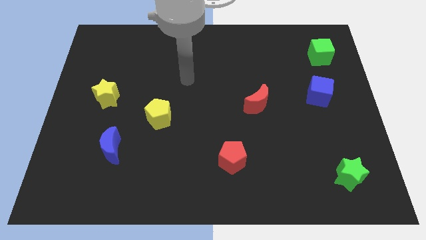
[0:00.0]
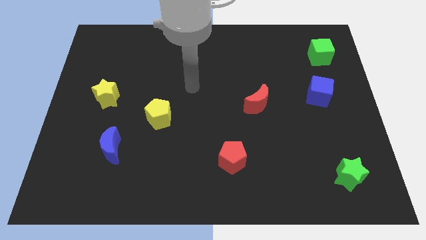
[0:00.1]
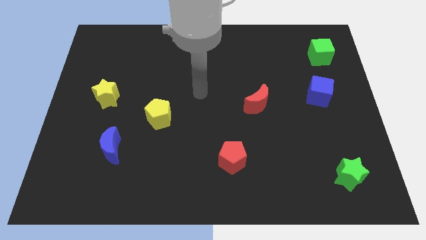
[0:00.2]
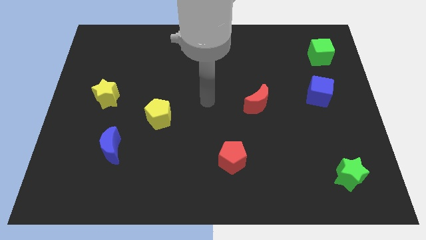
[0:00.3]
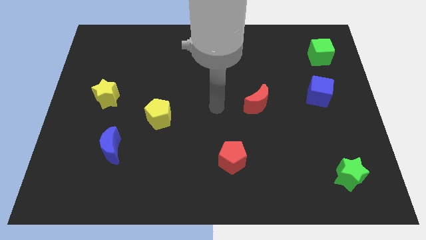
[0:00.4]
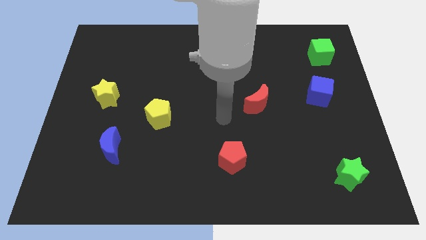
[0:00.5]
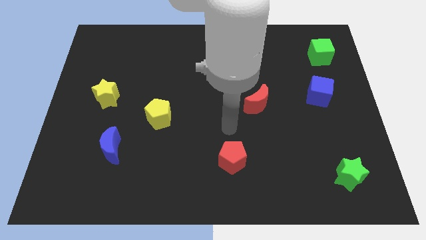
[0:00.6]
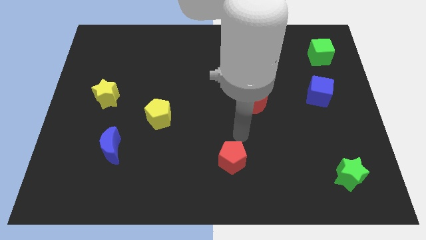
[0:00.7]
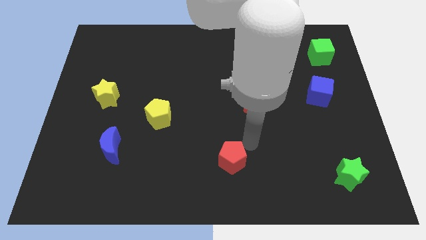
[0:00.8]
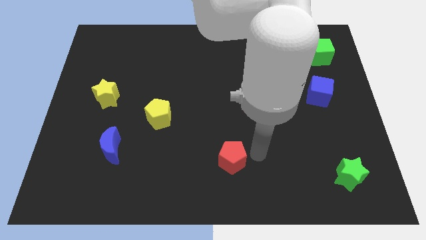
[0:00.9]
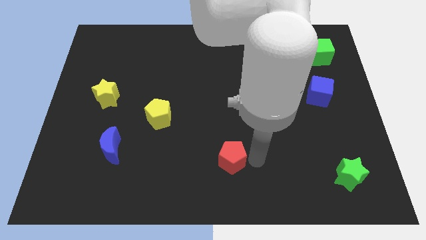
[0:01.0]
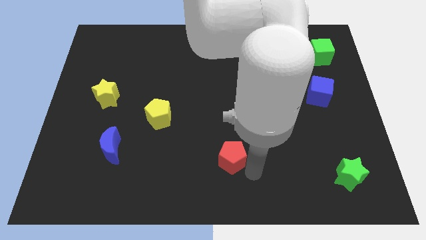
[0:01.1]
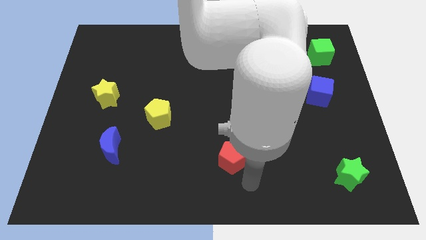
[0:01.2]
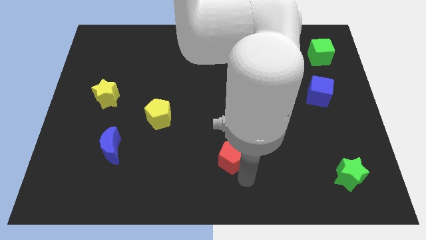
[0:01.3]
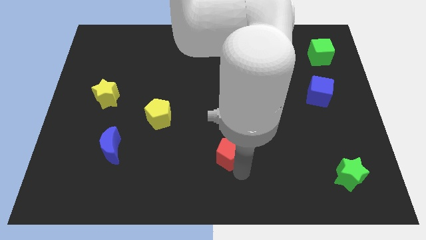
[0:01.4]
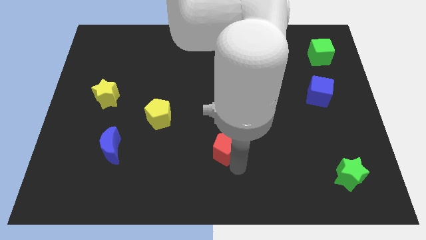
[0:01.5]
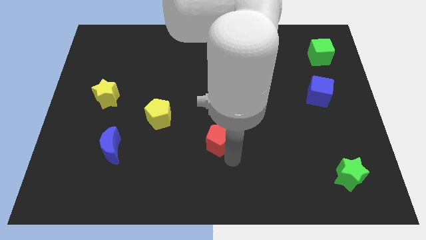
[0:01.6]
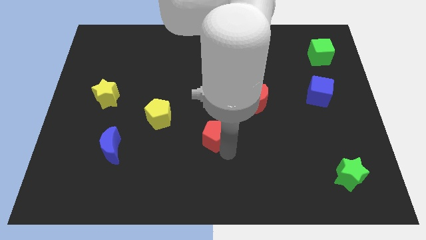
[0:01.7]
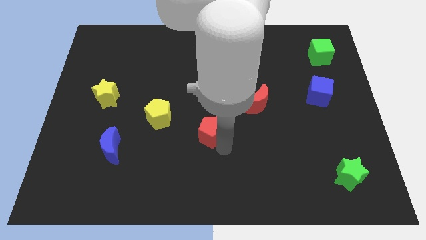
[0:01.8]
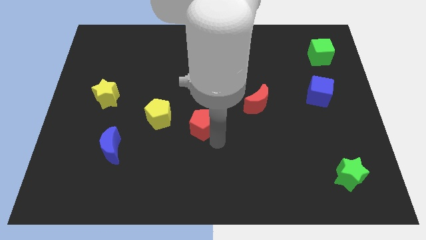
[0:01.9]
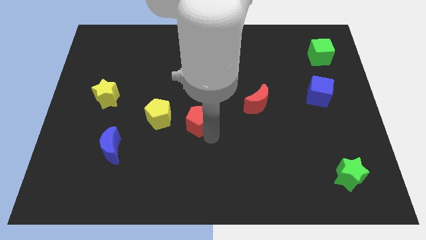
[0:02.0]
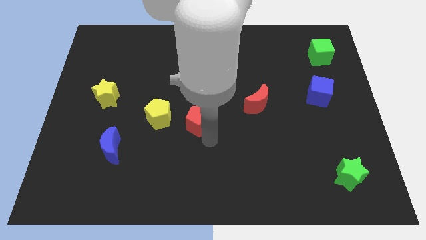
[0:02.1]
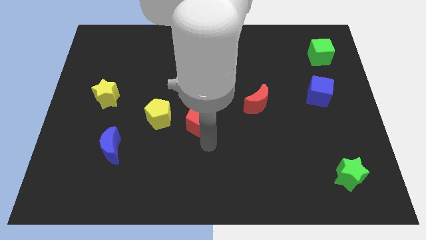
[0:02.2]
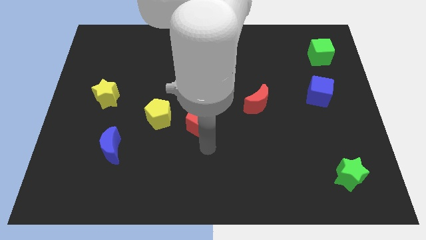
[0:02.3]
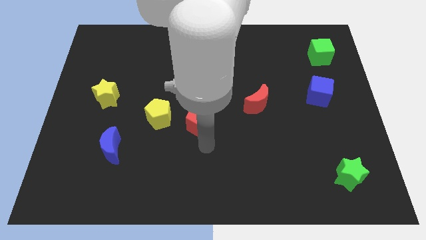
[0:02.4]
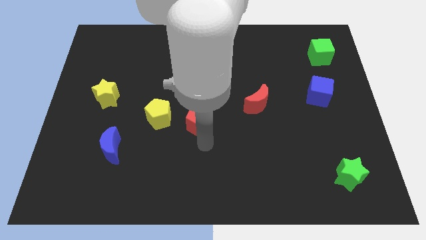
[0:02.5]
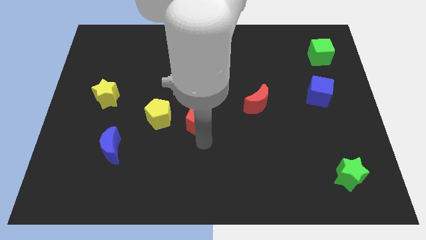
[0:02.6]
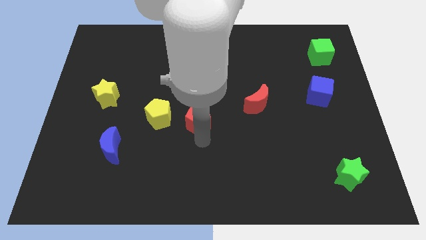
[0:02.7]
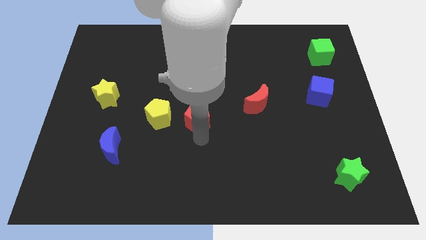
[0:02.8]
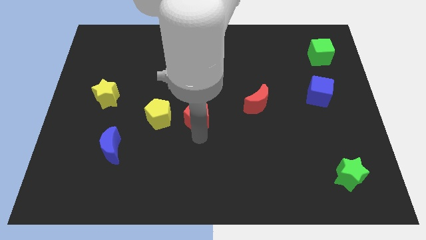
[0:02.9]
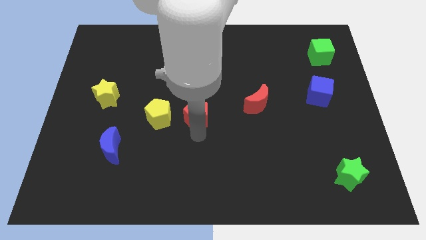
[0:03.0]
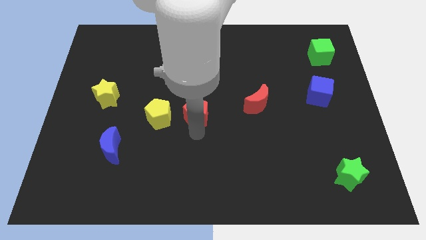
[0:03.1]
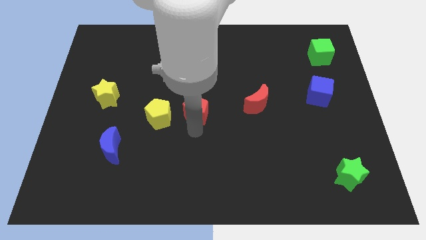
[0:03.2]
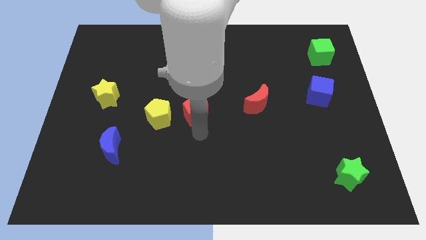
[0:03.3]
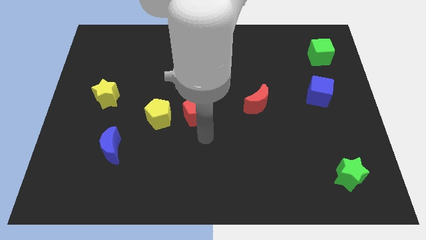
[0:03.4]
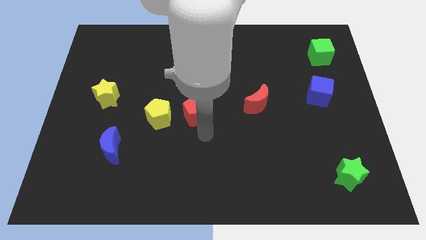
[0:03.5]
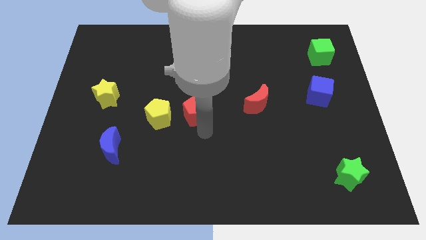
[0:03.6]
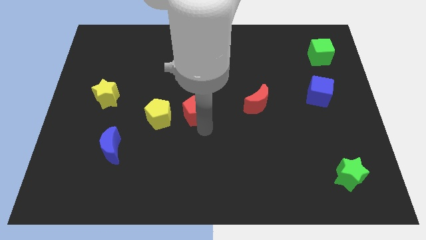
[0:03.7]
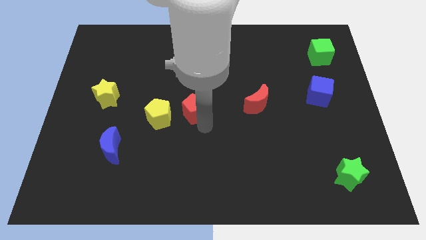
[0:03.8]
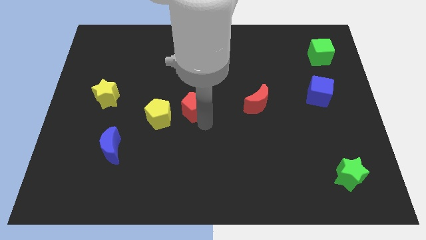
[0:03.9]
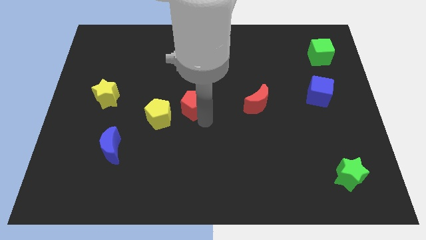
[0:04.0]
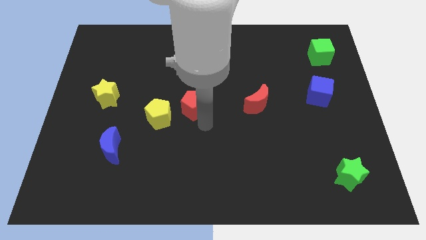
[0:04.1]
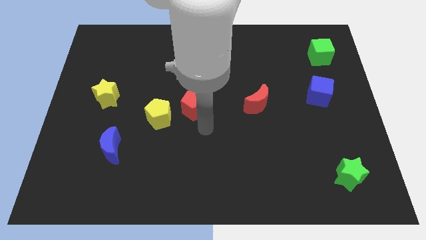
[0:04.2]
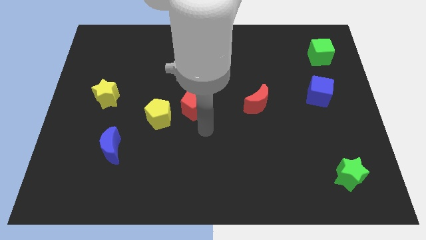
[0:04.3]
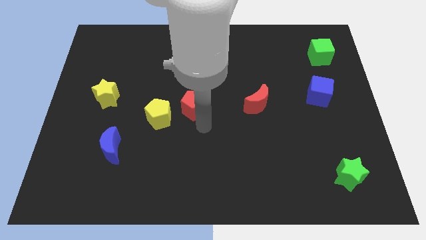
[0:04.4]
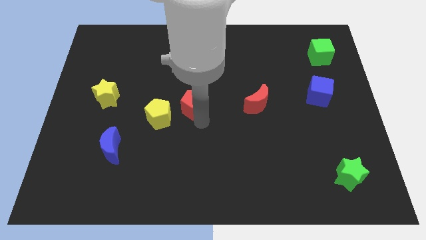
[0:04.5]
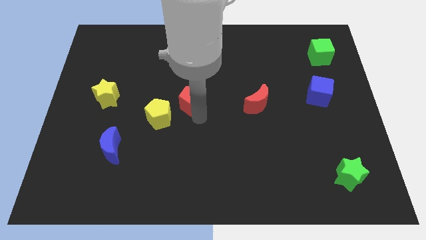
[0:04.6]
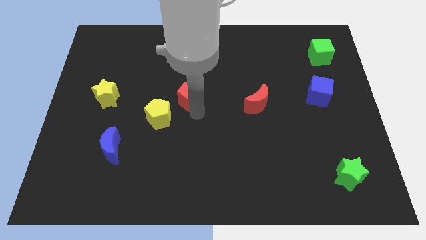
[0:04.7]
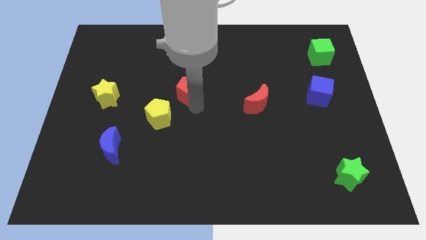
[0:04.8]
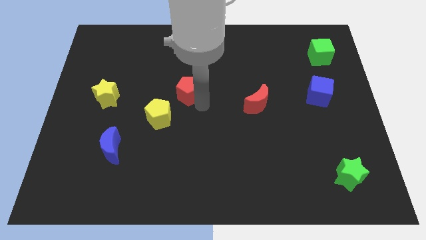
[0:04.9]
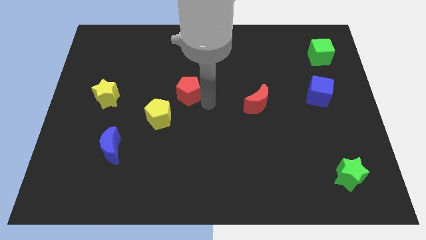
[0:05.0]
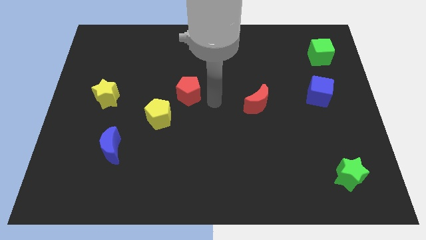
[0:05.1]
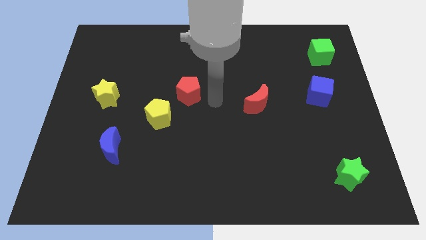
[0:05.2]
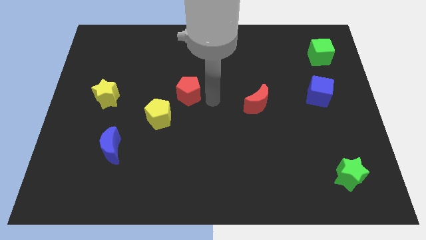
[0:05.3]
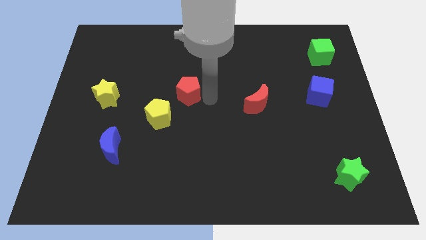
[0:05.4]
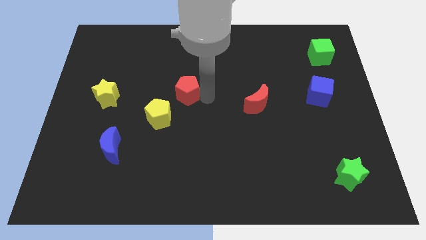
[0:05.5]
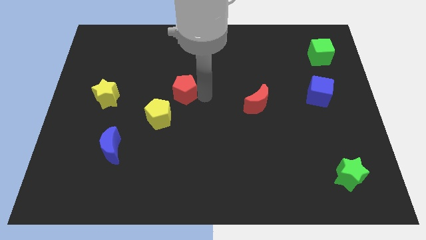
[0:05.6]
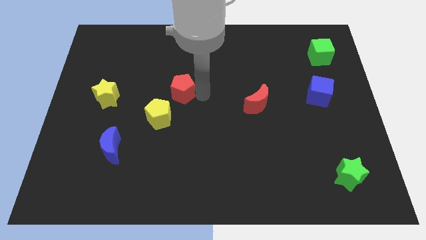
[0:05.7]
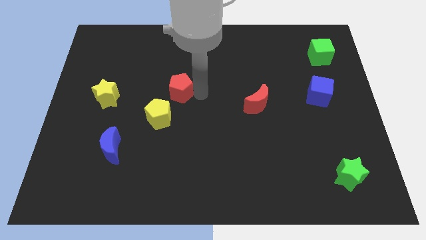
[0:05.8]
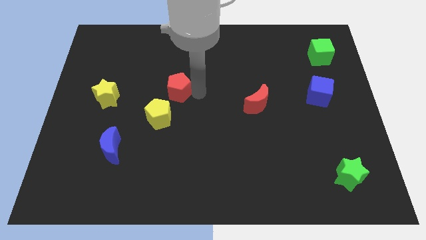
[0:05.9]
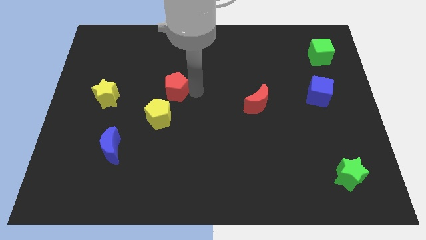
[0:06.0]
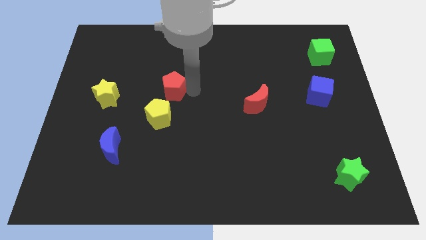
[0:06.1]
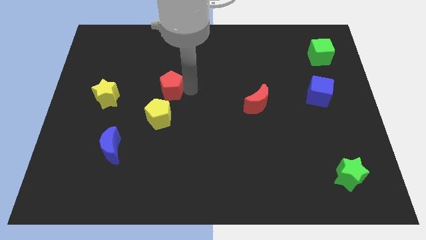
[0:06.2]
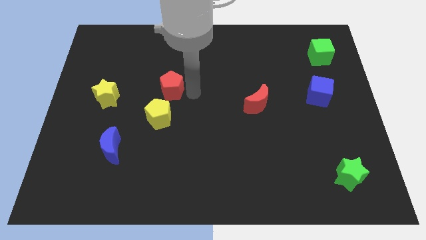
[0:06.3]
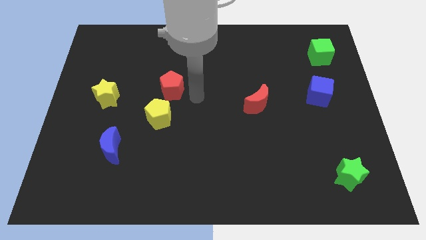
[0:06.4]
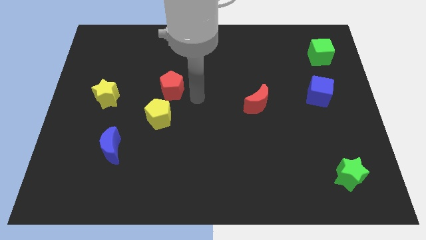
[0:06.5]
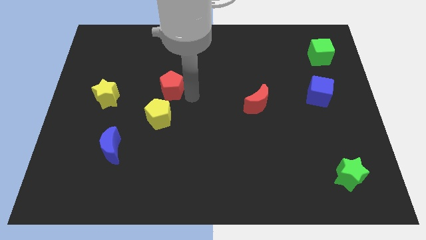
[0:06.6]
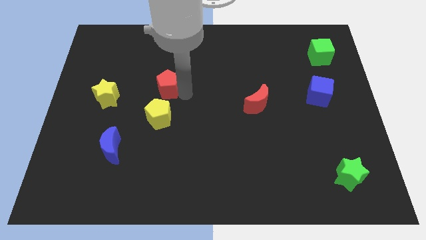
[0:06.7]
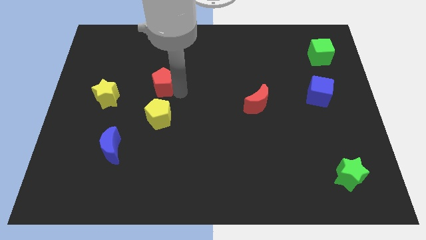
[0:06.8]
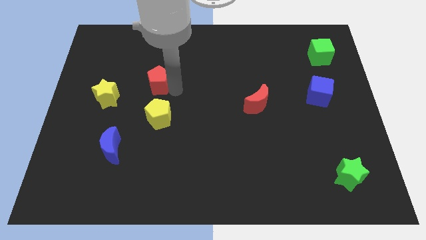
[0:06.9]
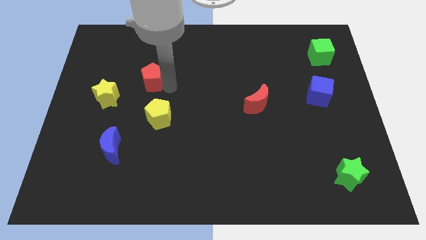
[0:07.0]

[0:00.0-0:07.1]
move the red pentagon to the top right of the yellow star
